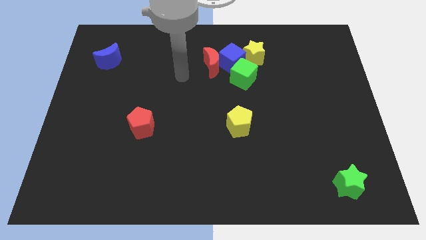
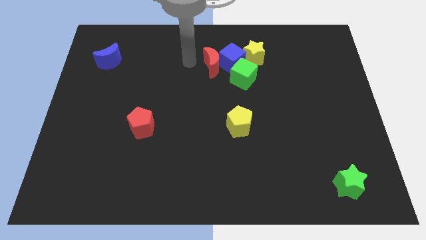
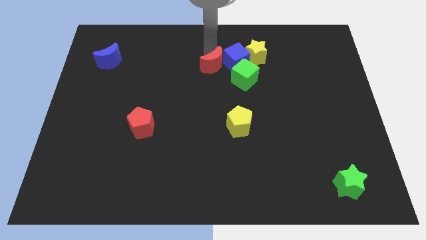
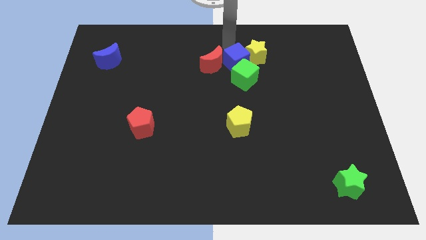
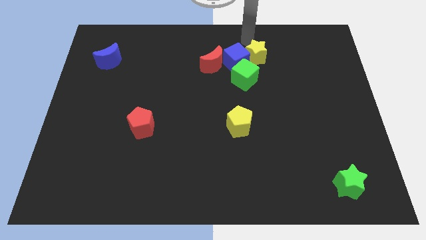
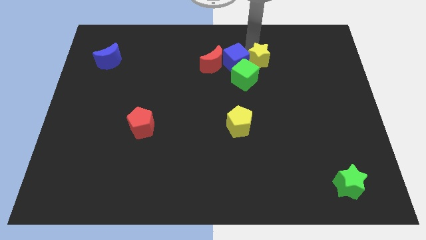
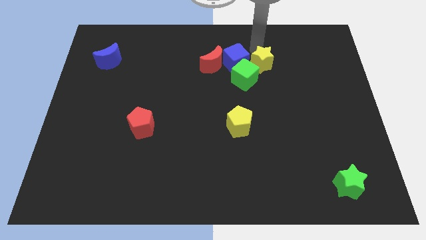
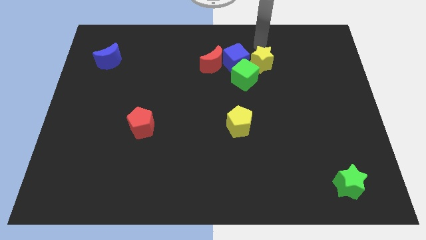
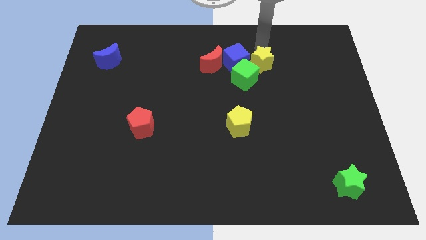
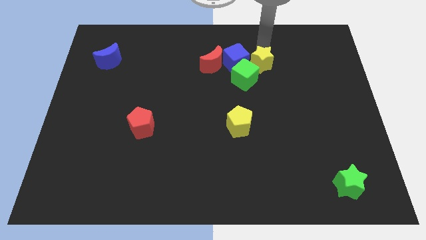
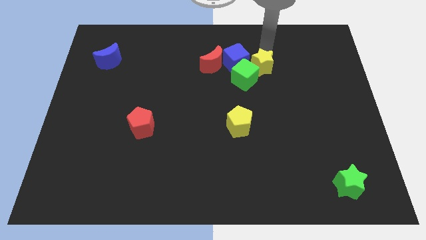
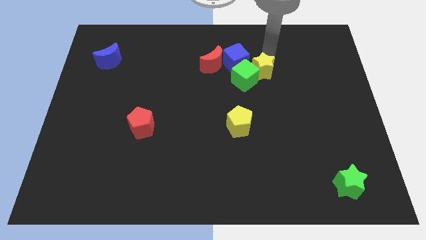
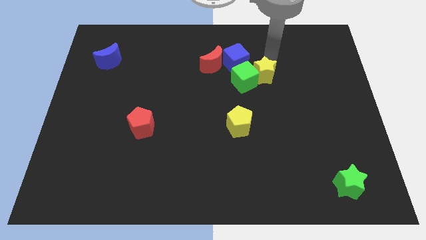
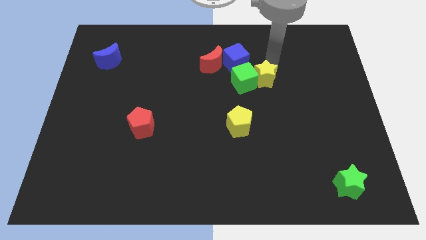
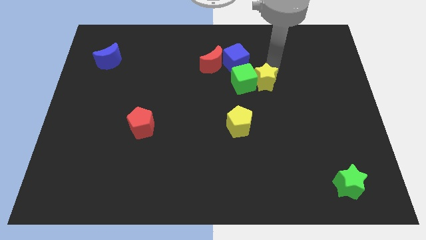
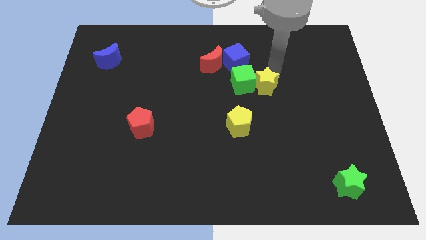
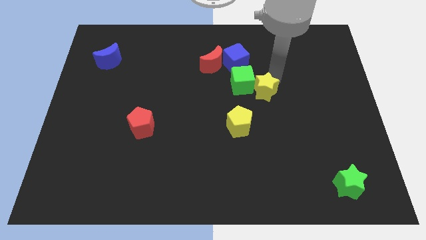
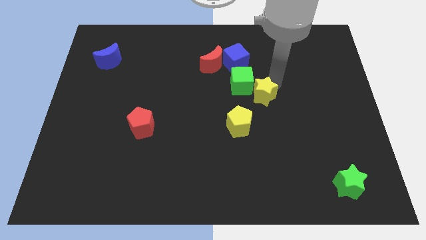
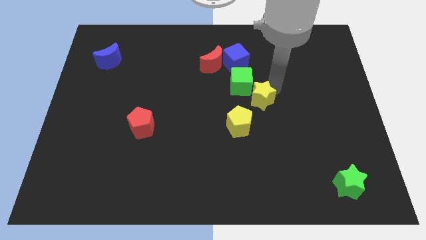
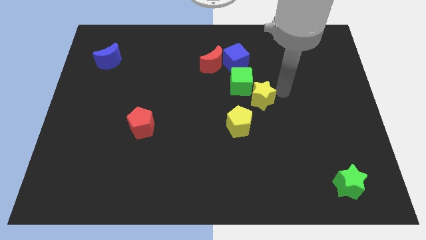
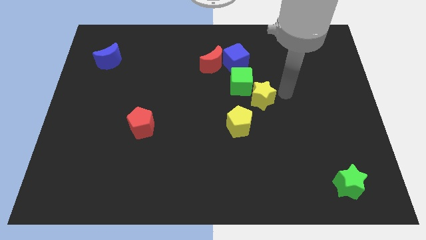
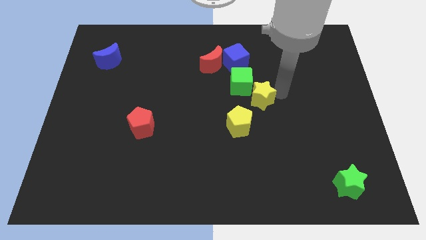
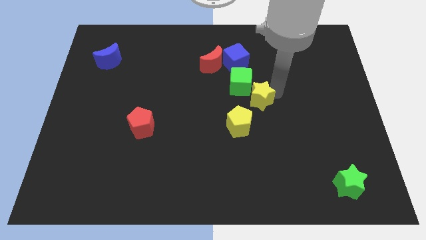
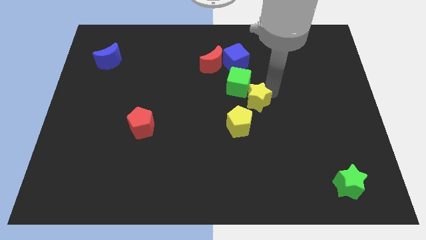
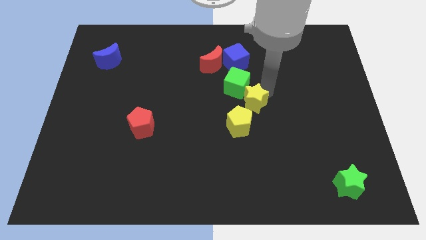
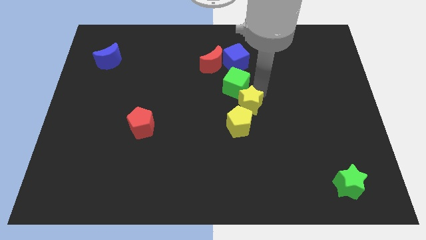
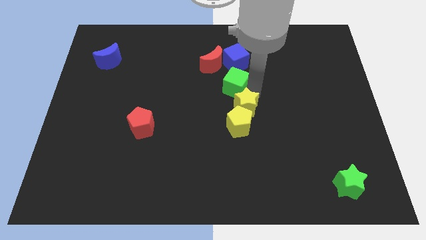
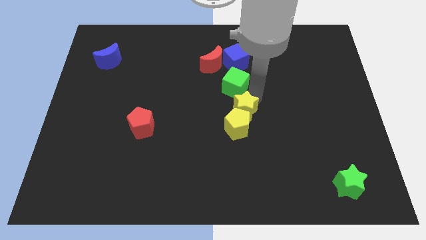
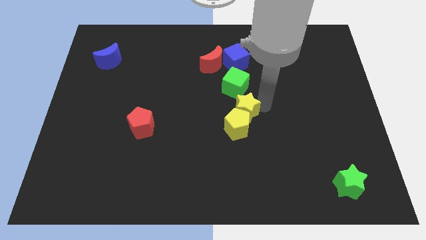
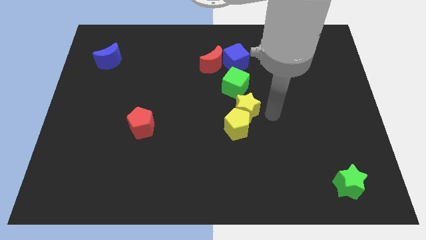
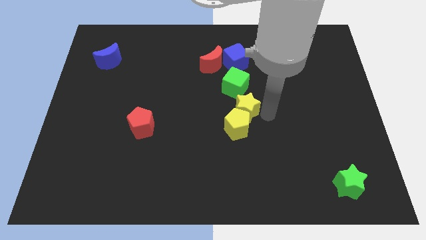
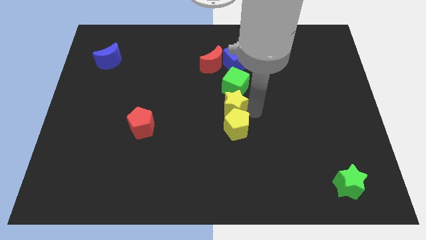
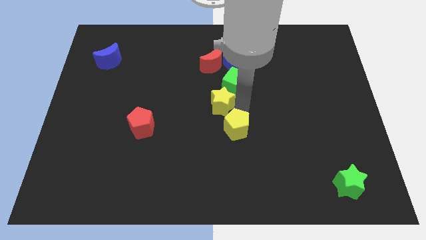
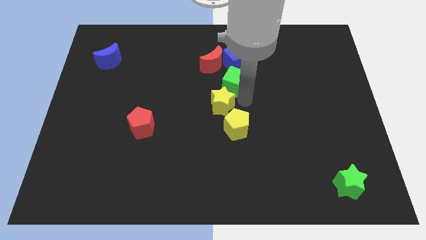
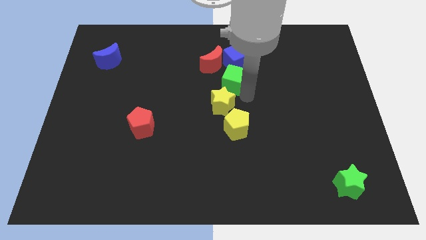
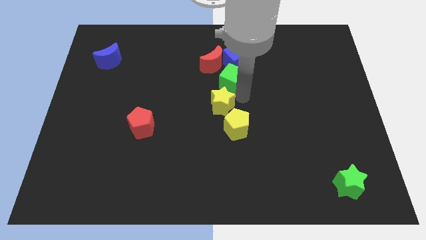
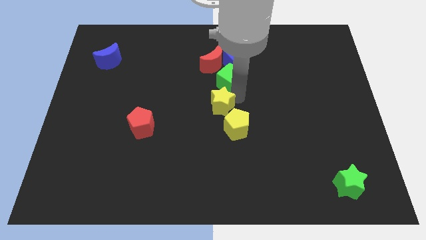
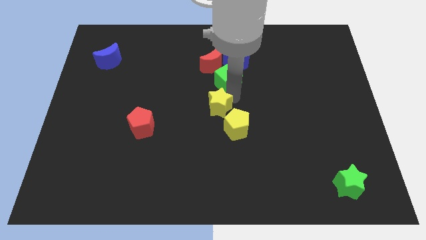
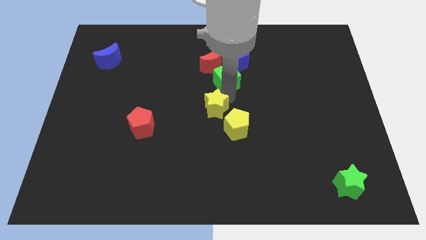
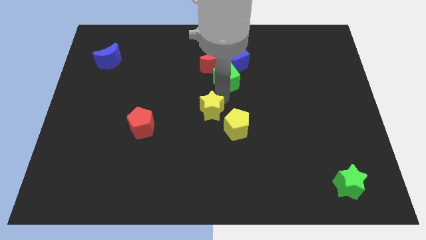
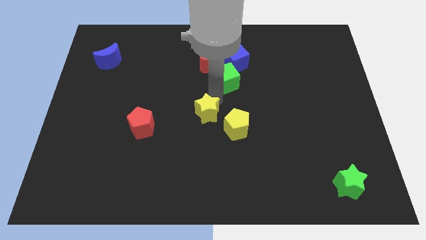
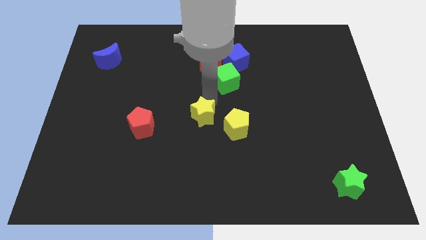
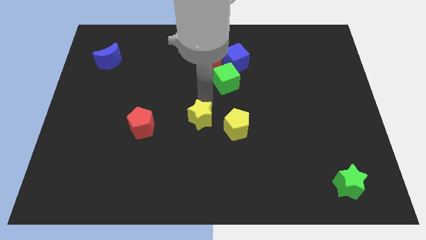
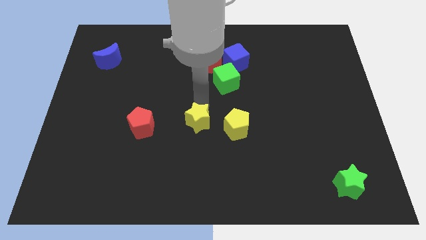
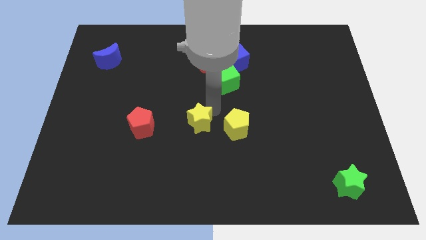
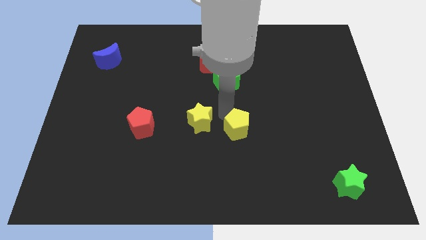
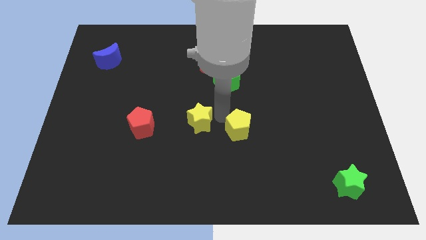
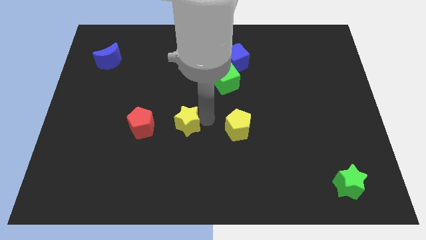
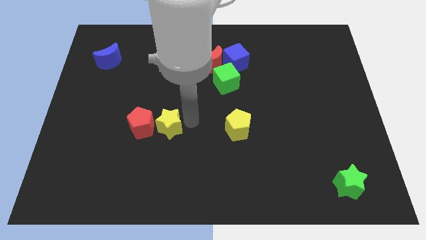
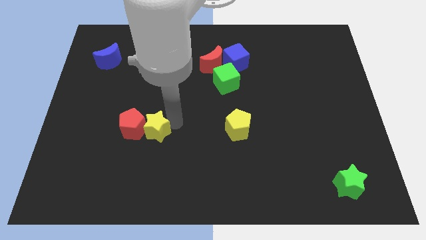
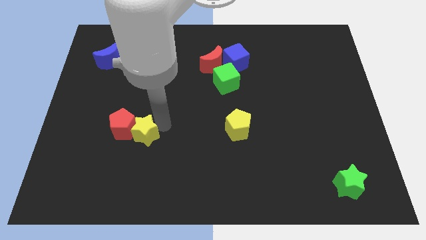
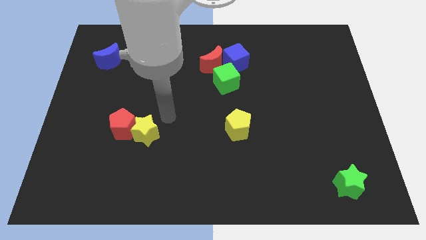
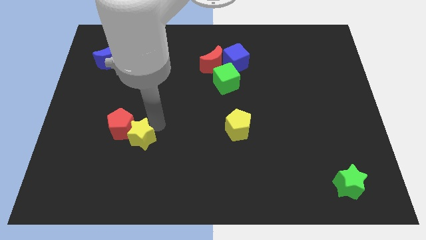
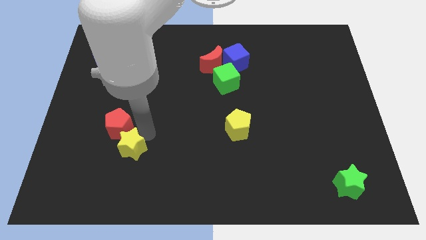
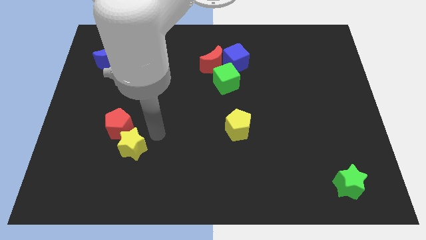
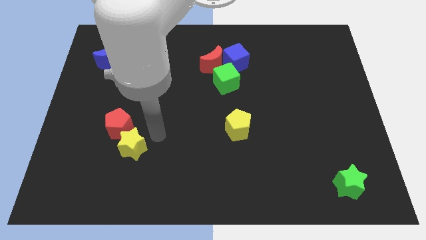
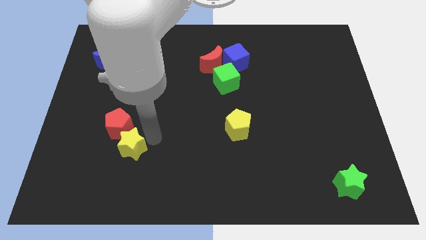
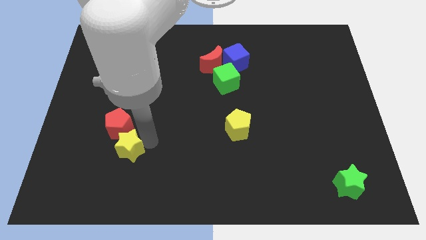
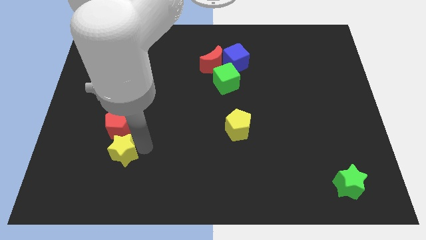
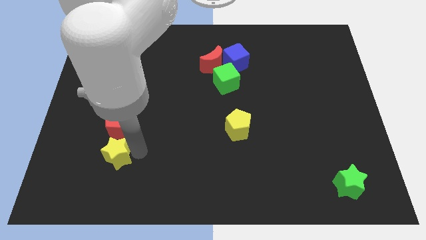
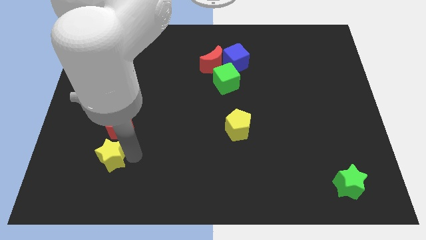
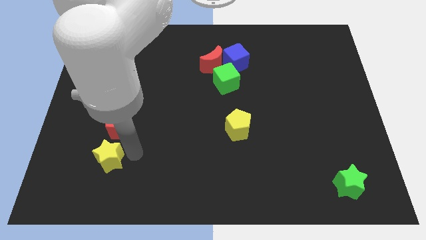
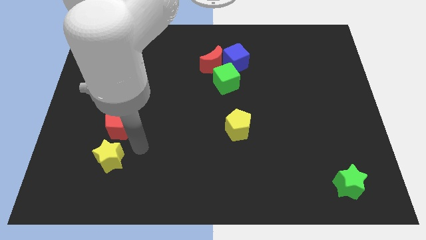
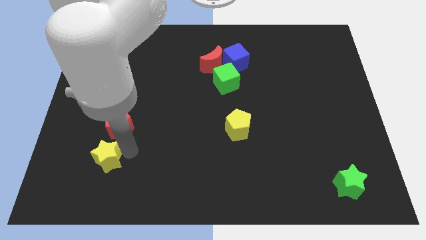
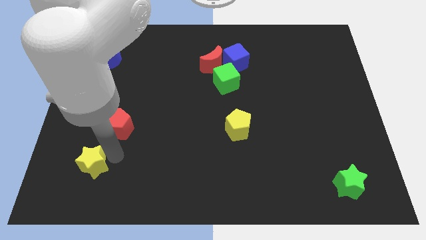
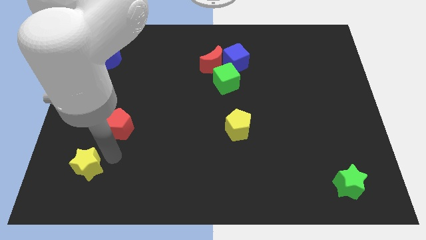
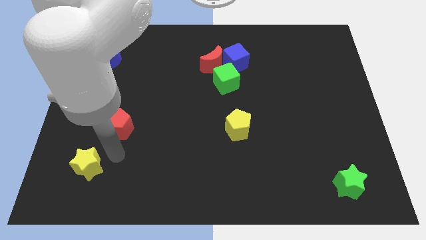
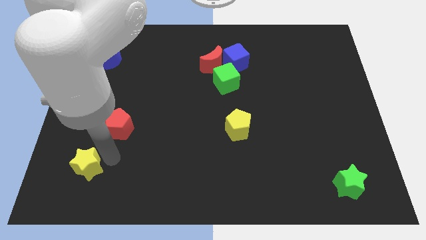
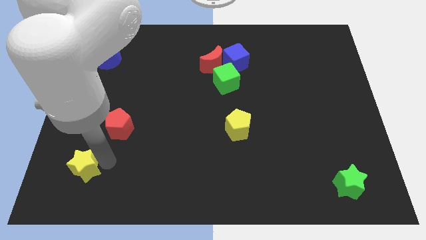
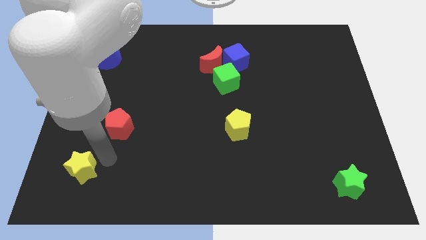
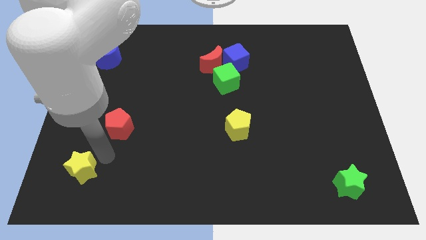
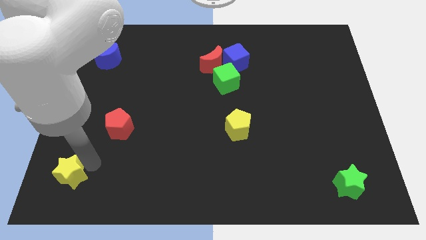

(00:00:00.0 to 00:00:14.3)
push the yellow star to the bottom left corner

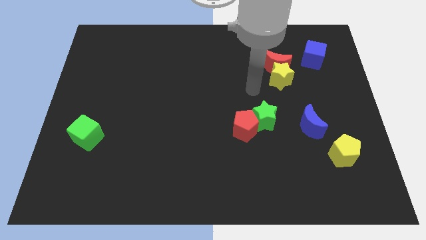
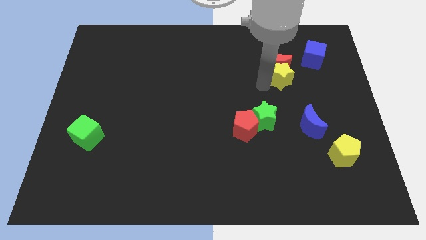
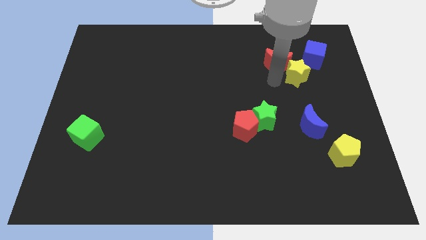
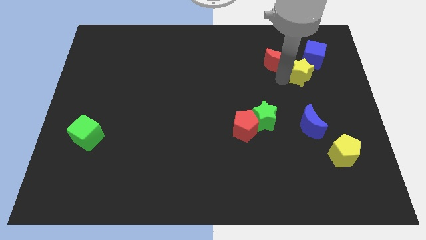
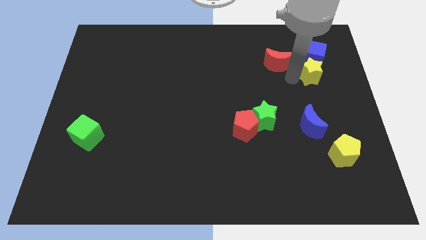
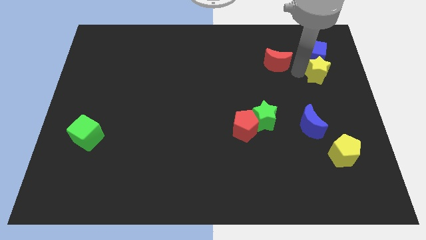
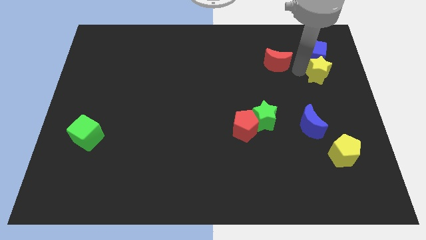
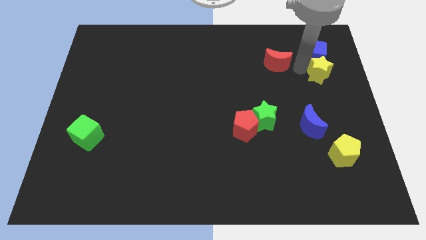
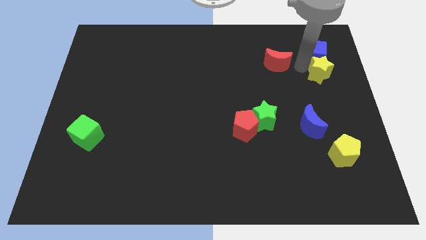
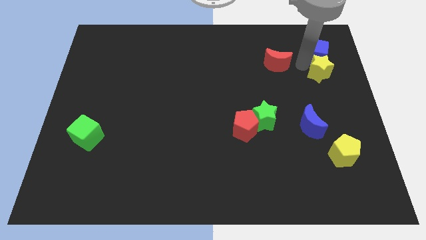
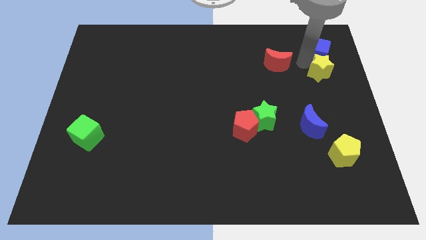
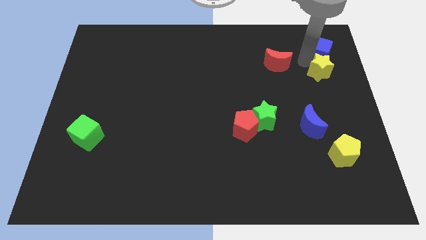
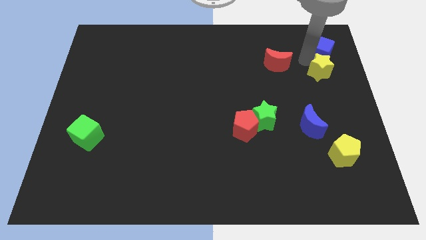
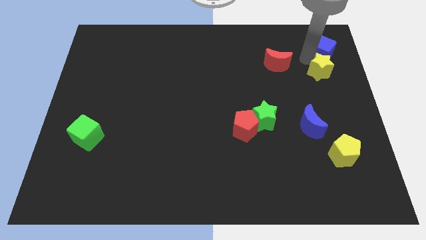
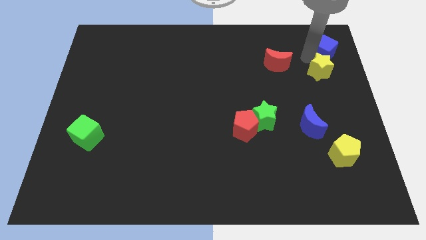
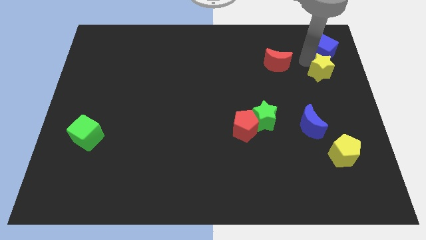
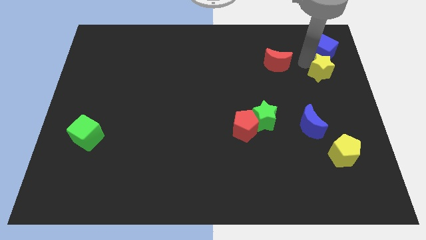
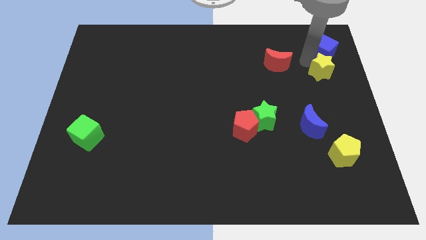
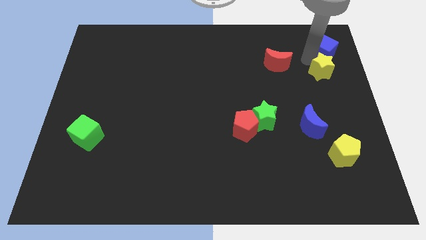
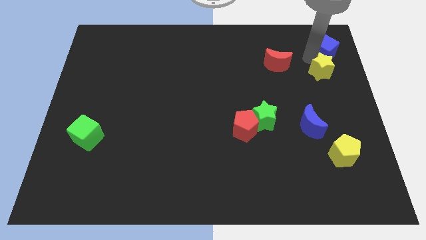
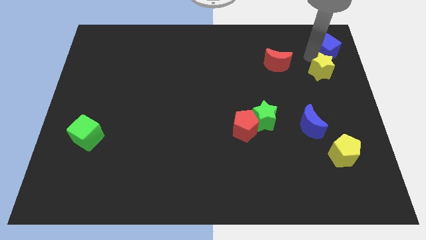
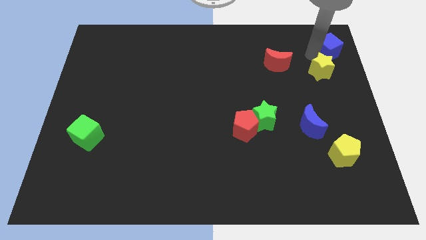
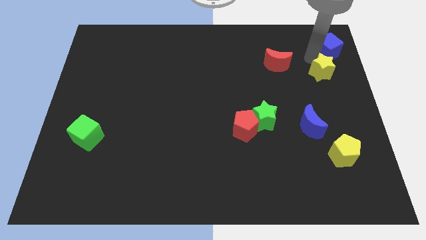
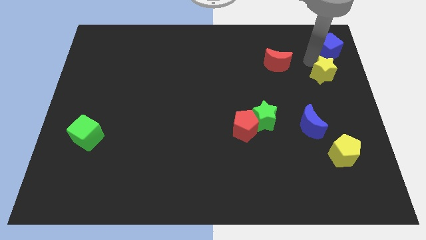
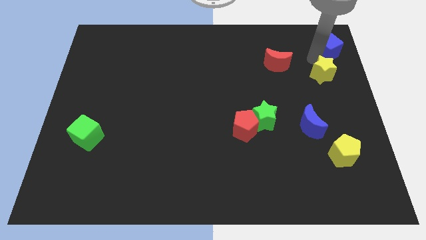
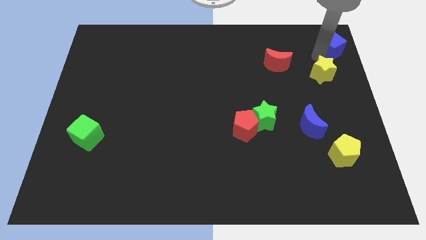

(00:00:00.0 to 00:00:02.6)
push the blue cube to the top right corner
